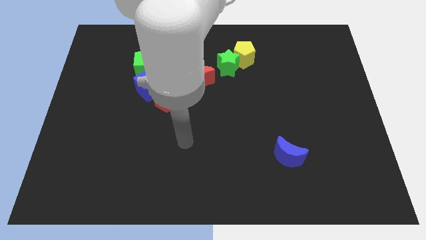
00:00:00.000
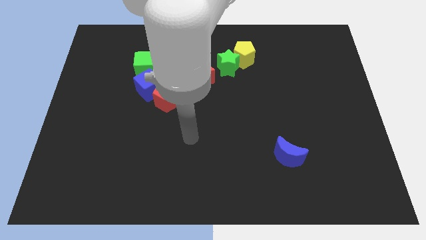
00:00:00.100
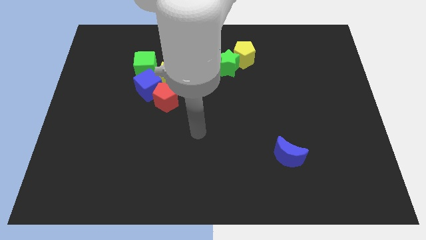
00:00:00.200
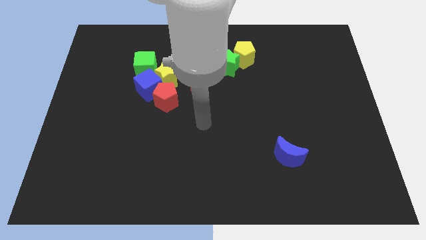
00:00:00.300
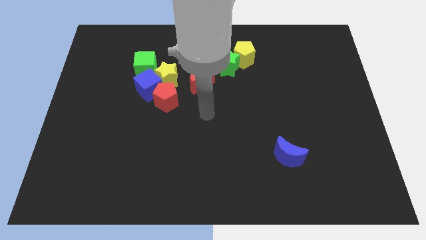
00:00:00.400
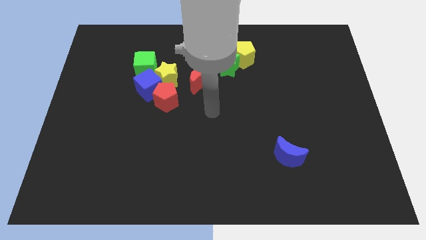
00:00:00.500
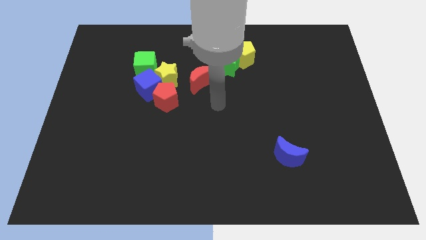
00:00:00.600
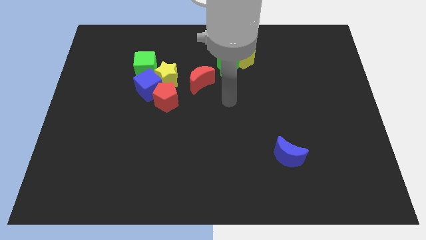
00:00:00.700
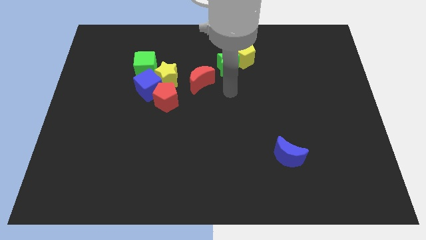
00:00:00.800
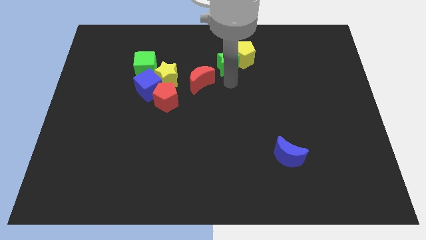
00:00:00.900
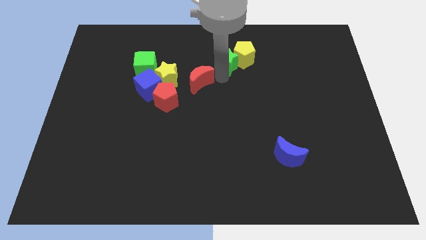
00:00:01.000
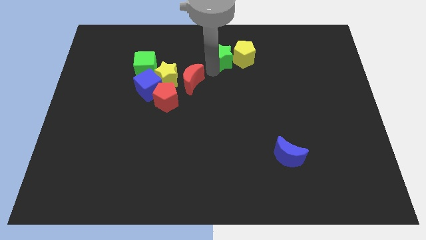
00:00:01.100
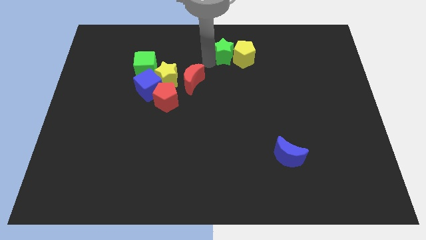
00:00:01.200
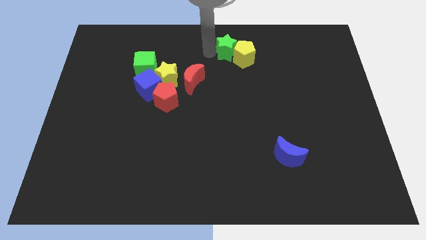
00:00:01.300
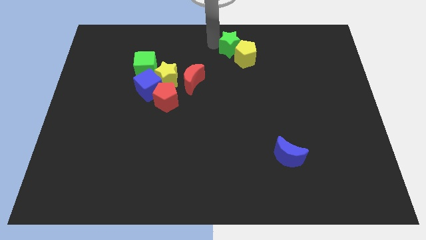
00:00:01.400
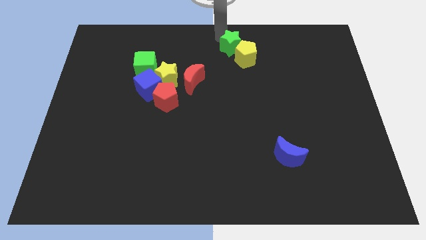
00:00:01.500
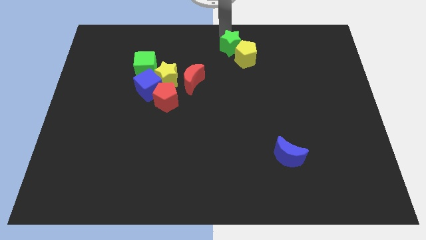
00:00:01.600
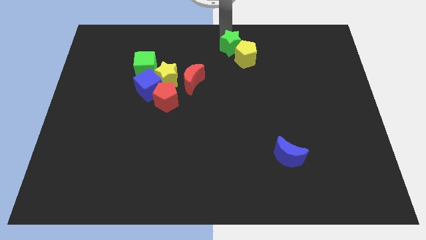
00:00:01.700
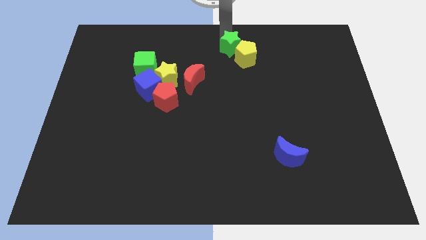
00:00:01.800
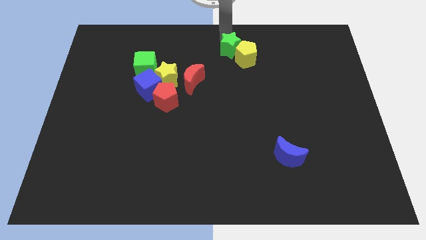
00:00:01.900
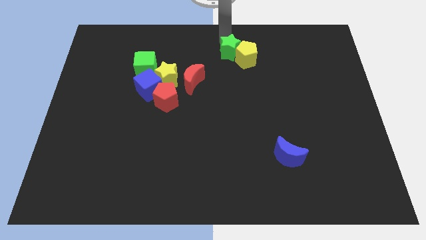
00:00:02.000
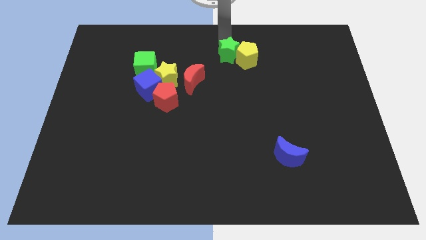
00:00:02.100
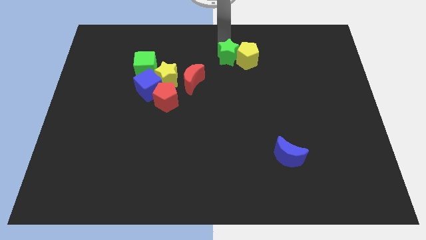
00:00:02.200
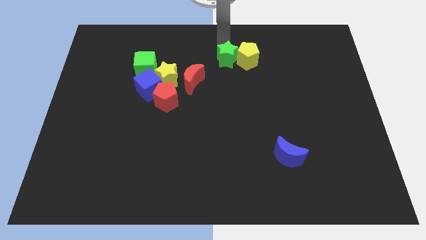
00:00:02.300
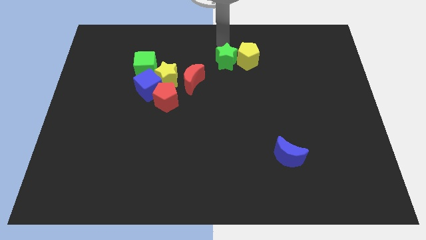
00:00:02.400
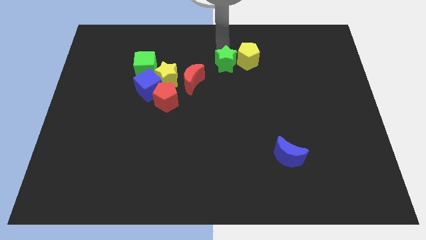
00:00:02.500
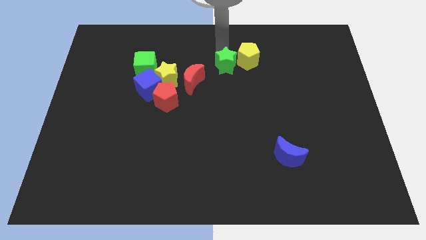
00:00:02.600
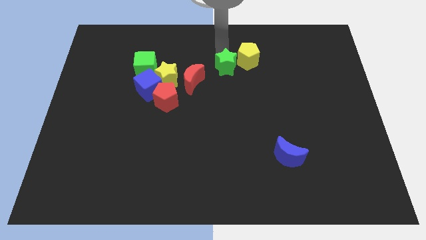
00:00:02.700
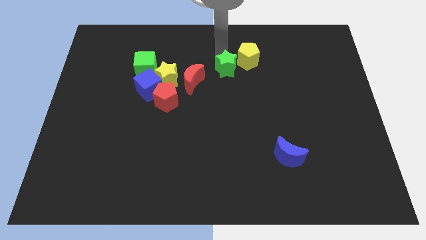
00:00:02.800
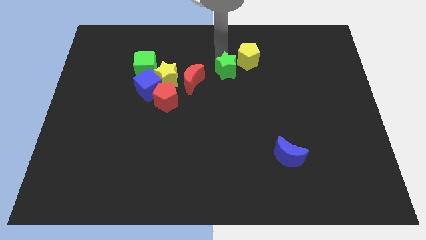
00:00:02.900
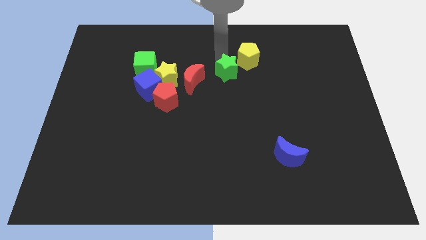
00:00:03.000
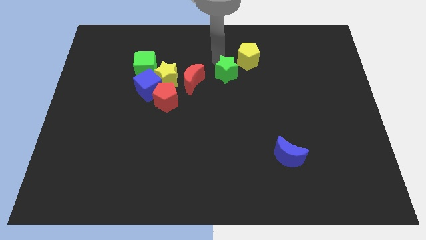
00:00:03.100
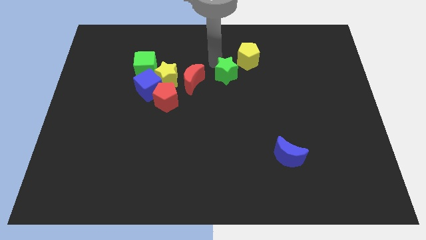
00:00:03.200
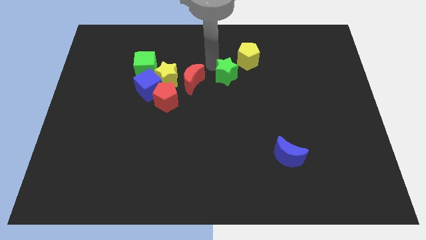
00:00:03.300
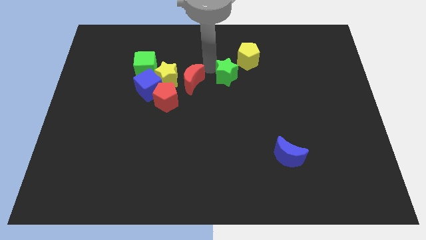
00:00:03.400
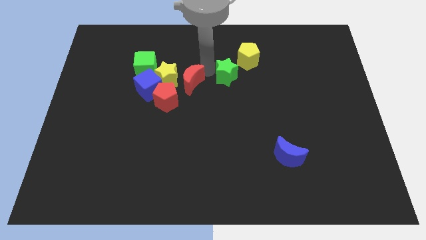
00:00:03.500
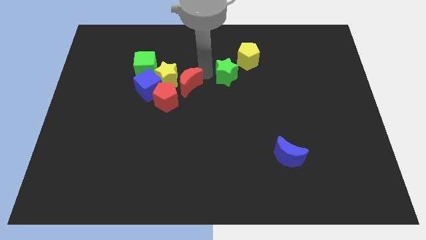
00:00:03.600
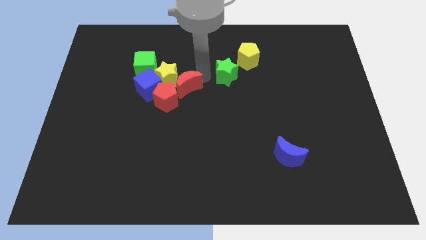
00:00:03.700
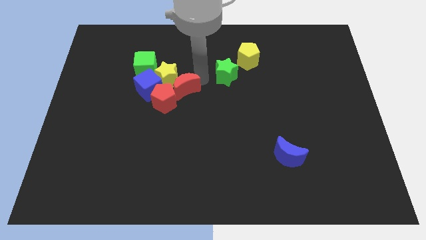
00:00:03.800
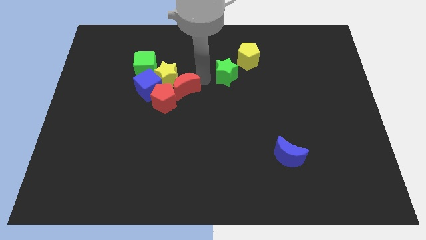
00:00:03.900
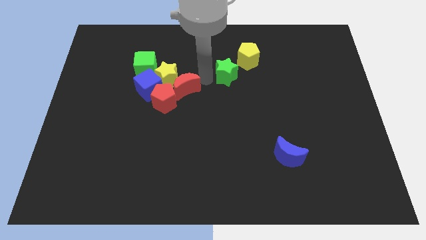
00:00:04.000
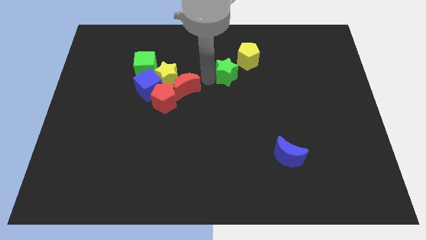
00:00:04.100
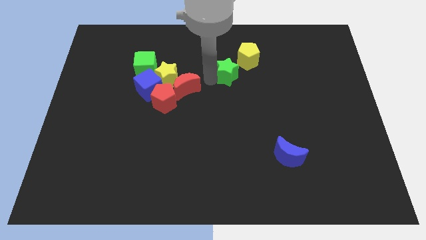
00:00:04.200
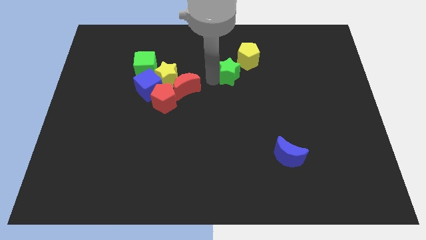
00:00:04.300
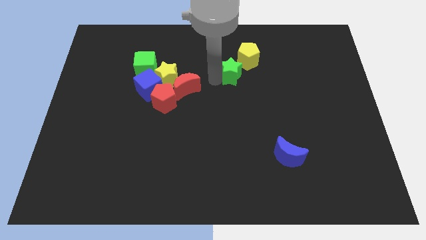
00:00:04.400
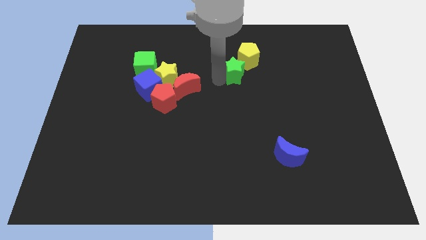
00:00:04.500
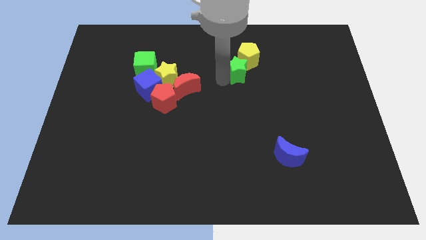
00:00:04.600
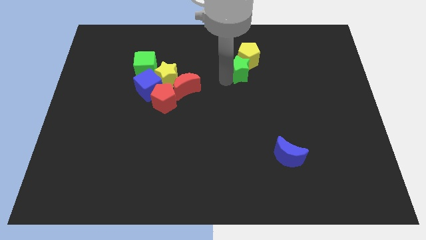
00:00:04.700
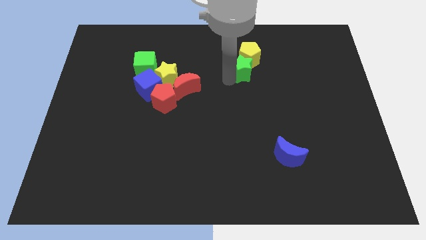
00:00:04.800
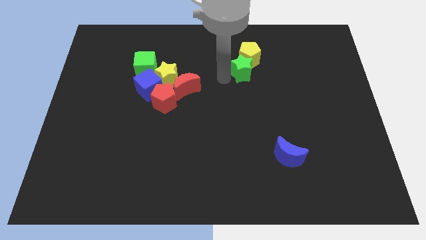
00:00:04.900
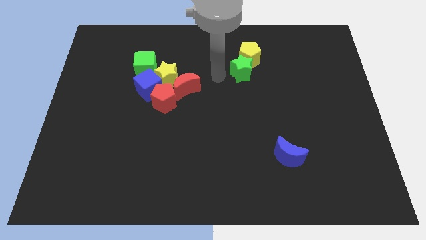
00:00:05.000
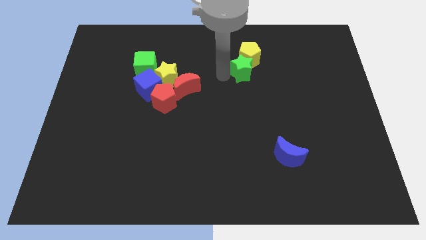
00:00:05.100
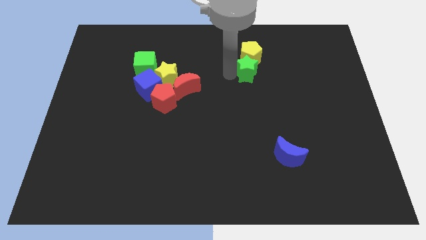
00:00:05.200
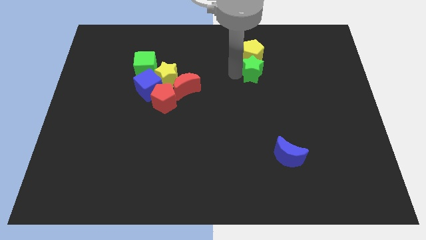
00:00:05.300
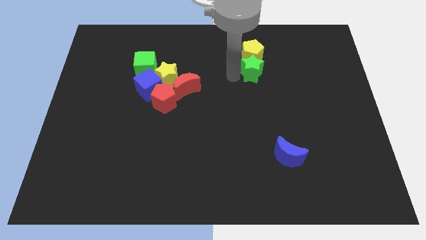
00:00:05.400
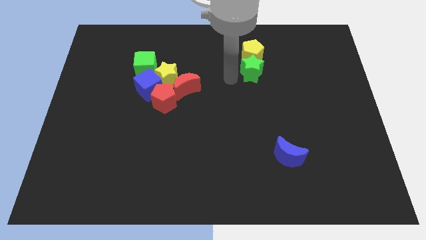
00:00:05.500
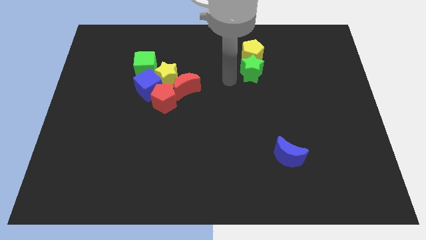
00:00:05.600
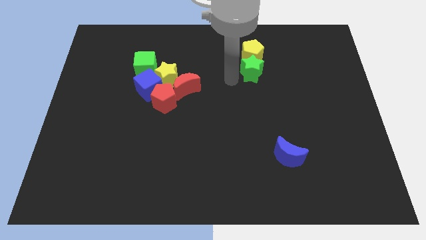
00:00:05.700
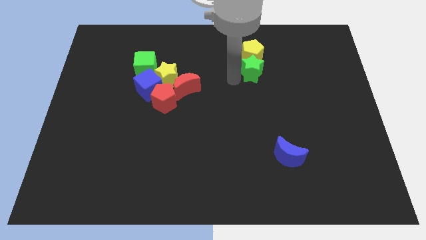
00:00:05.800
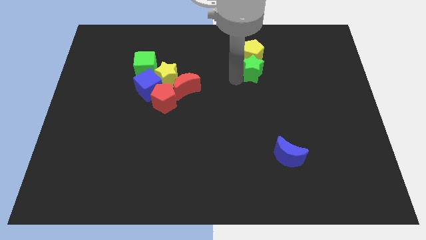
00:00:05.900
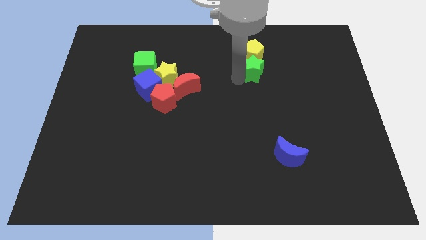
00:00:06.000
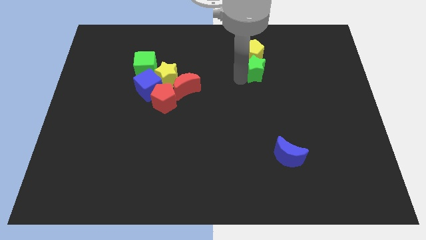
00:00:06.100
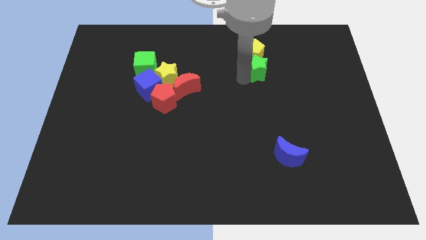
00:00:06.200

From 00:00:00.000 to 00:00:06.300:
move the green star slightly to the right

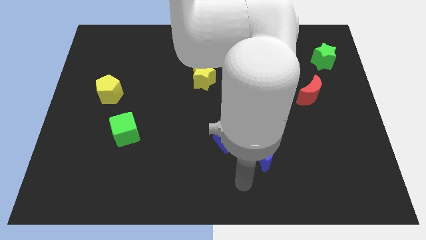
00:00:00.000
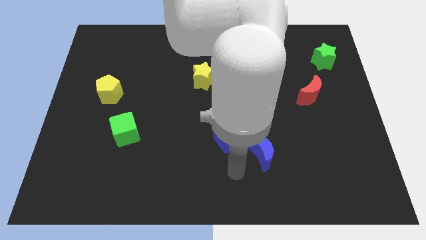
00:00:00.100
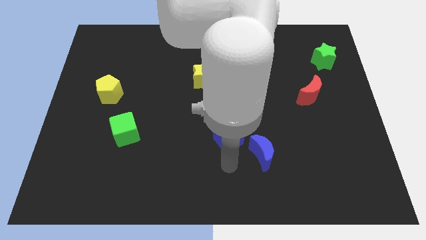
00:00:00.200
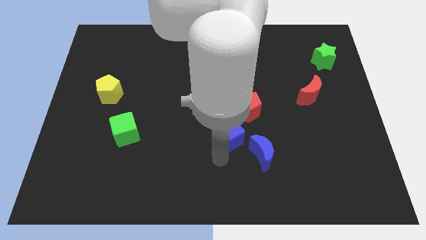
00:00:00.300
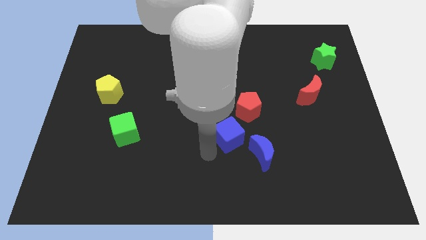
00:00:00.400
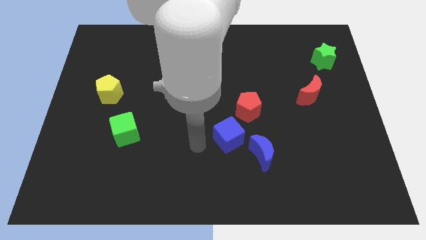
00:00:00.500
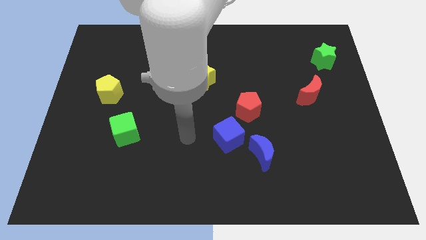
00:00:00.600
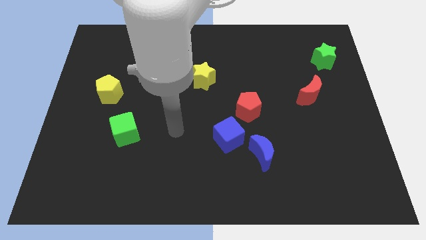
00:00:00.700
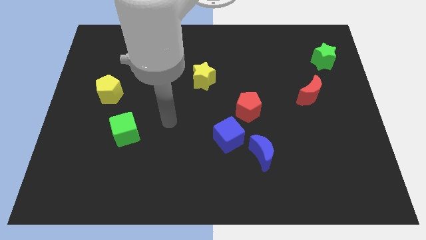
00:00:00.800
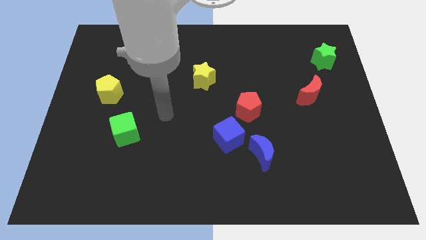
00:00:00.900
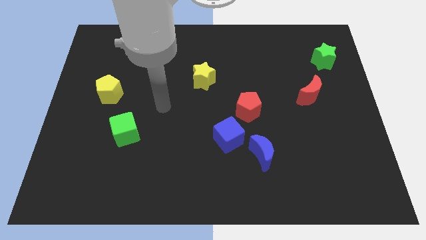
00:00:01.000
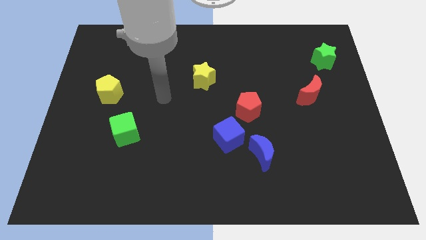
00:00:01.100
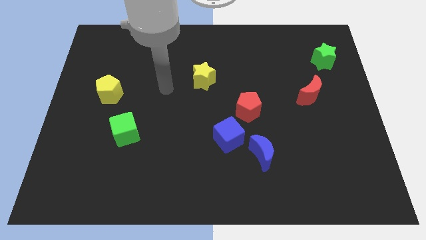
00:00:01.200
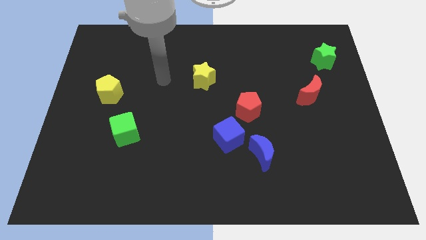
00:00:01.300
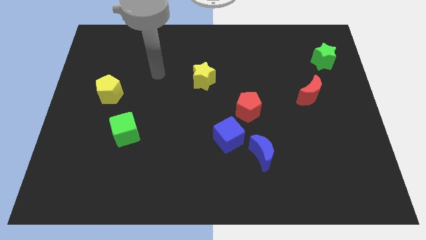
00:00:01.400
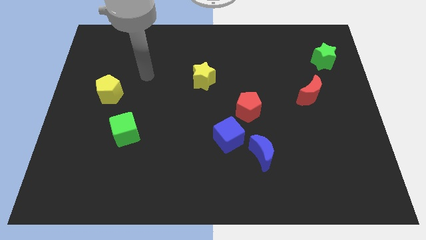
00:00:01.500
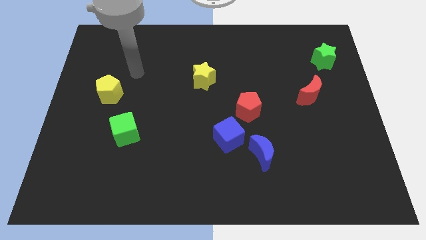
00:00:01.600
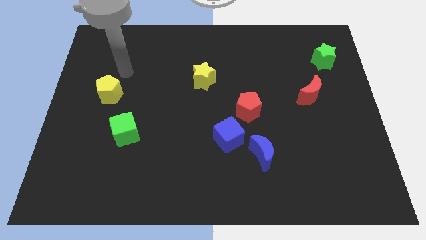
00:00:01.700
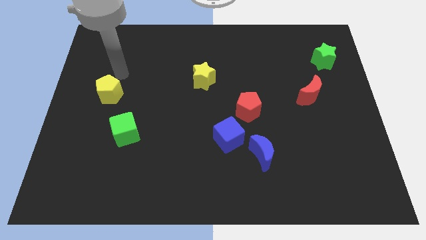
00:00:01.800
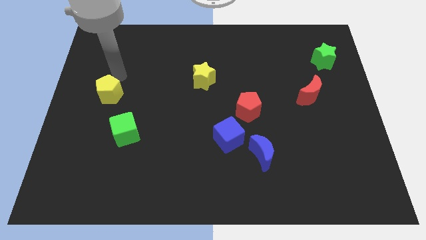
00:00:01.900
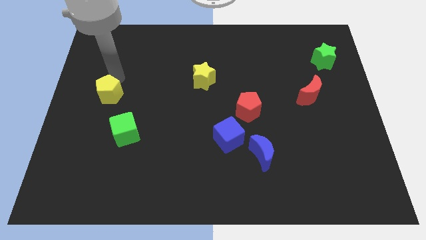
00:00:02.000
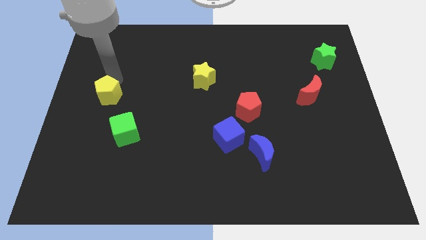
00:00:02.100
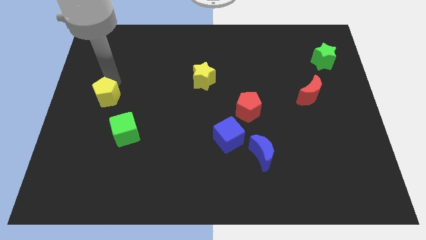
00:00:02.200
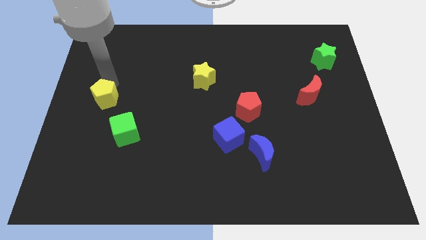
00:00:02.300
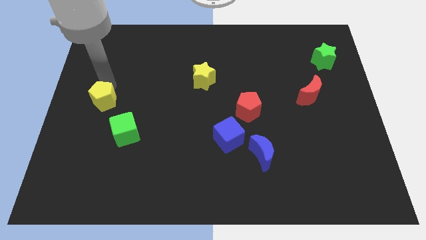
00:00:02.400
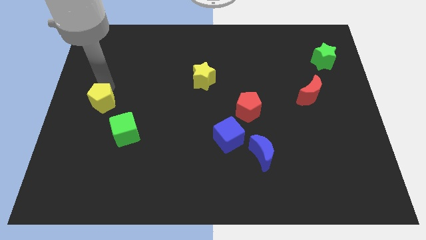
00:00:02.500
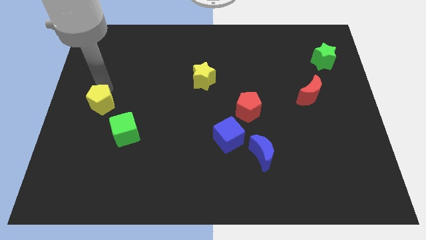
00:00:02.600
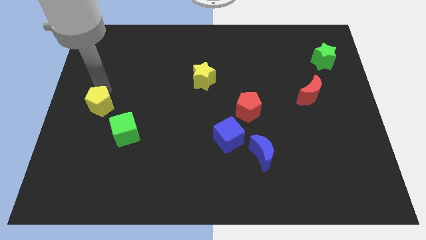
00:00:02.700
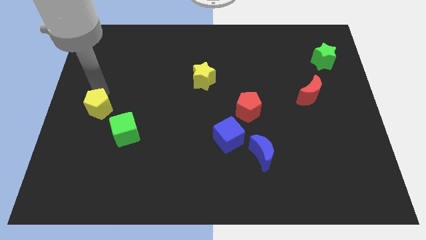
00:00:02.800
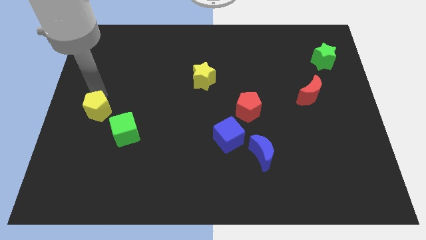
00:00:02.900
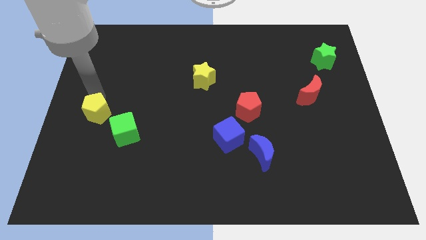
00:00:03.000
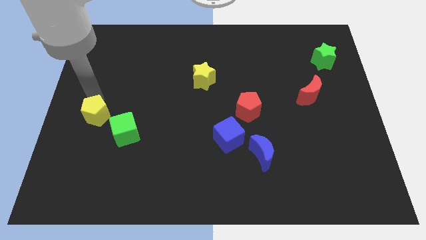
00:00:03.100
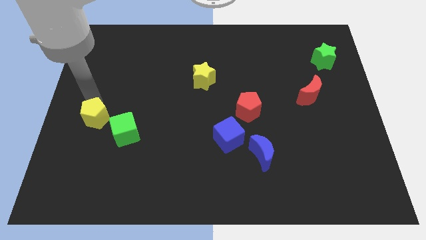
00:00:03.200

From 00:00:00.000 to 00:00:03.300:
push the yellow pentagon down a bit
